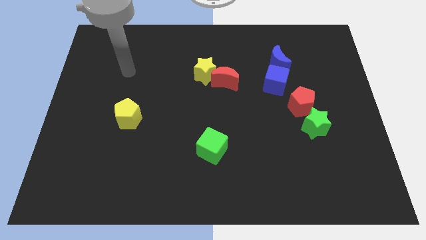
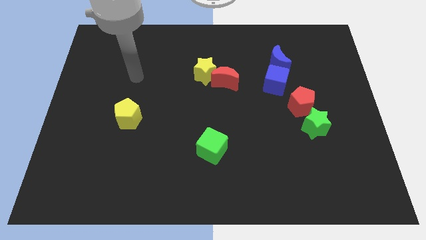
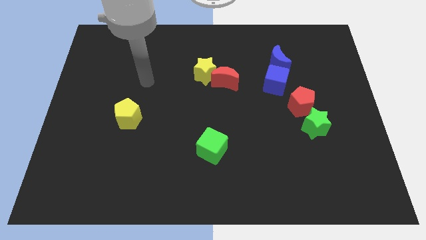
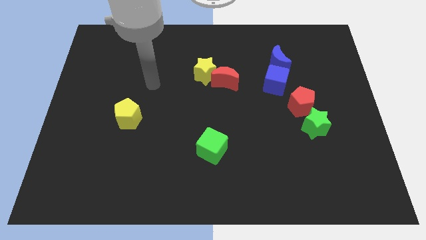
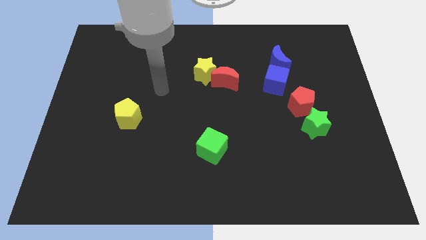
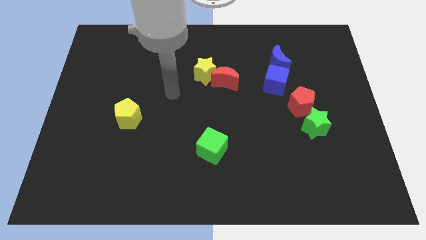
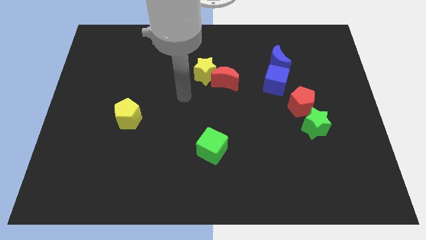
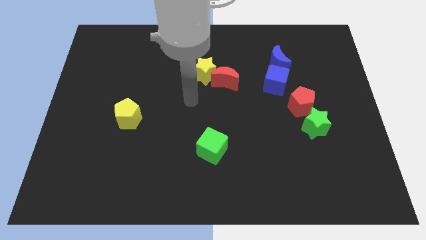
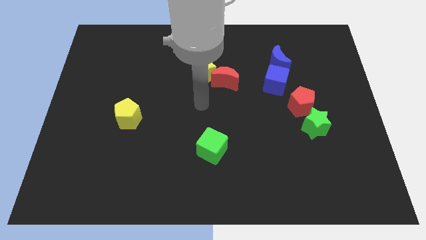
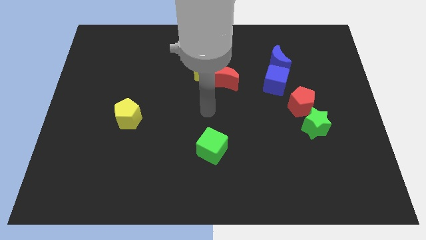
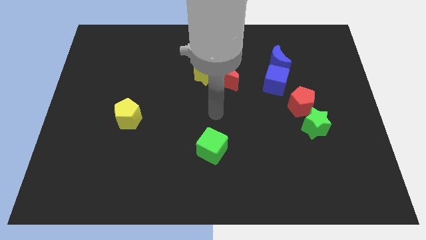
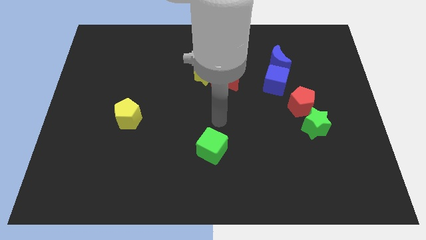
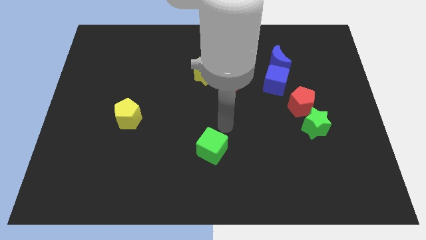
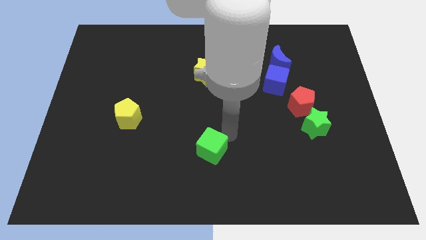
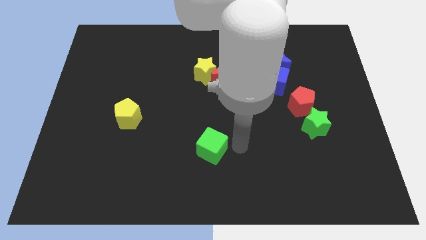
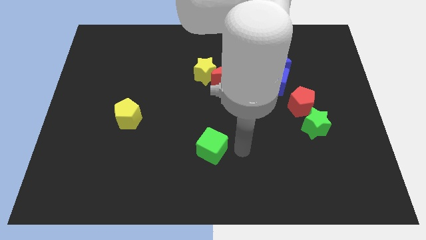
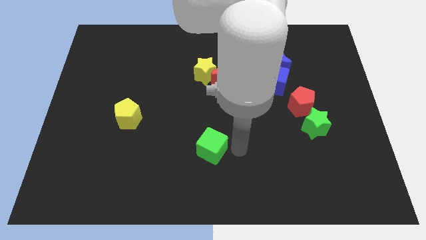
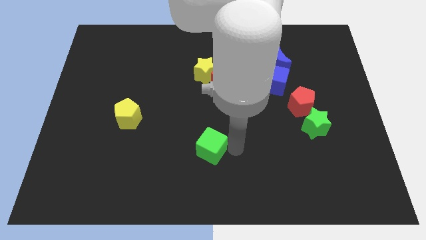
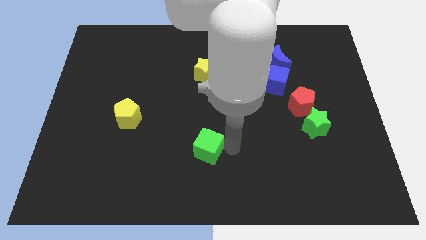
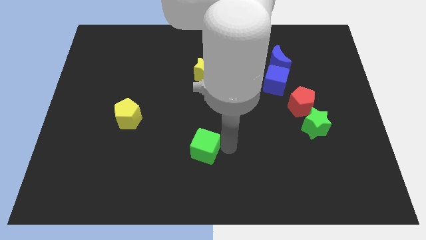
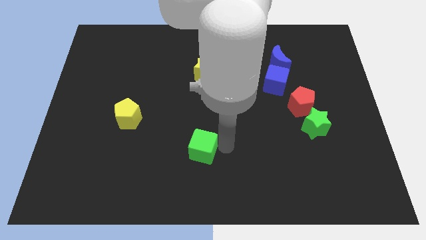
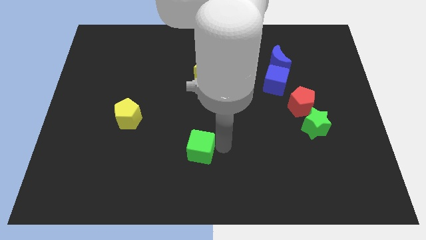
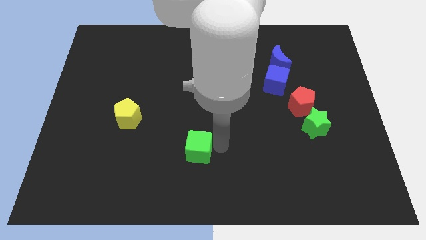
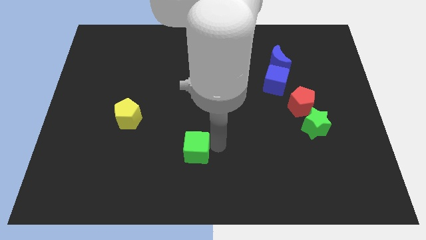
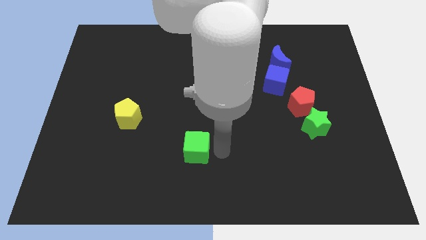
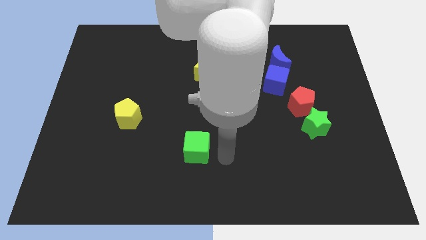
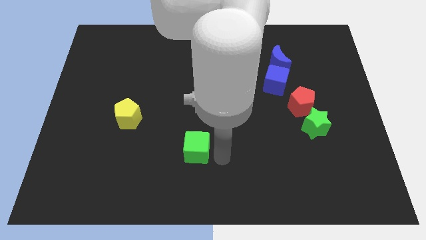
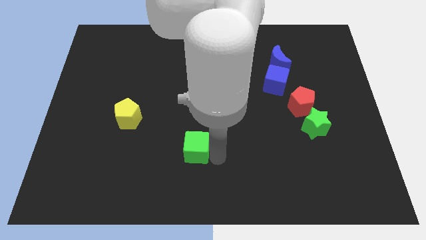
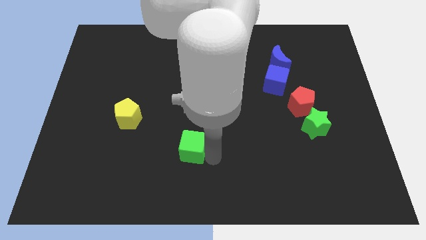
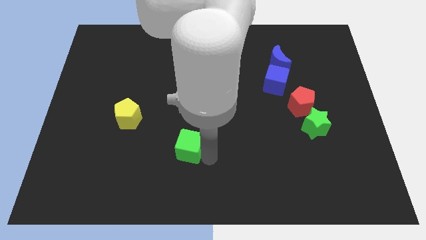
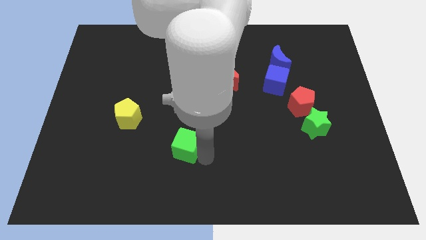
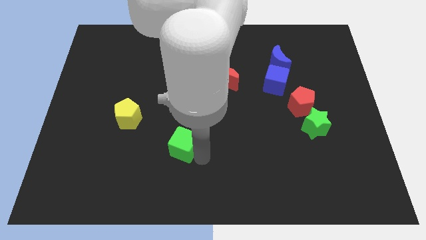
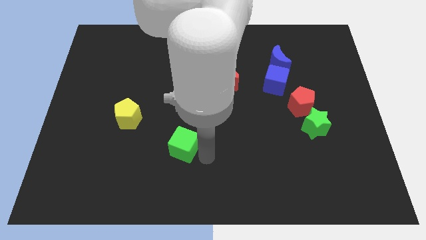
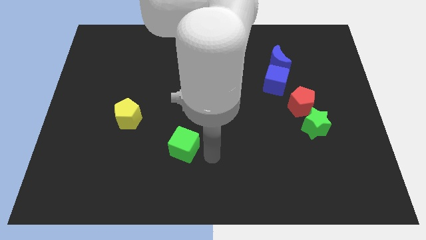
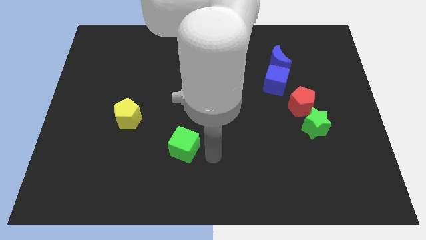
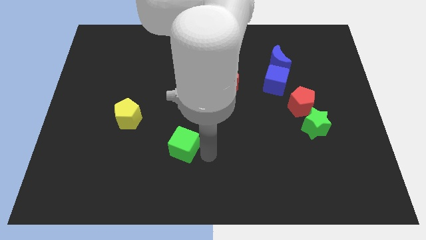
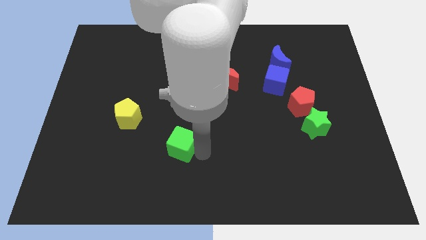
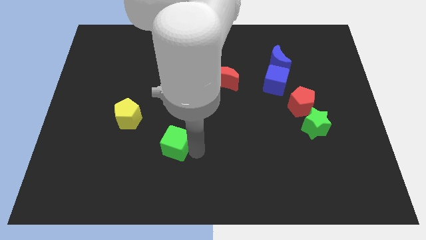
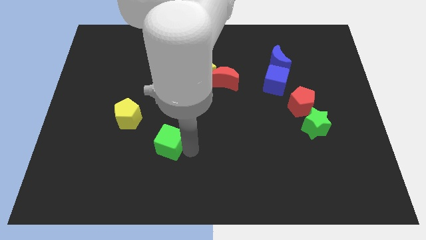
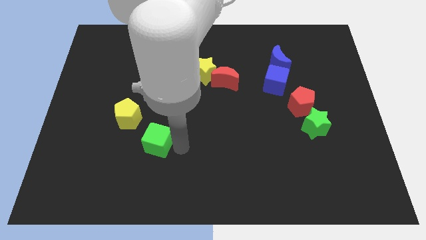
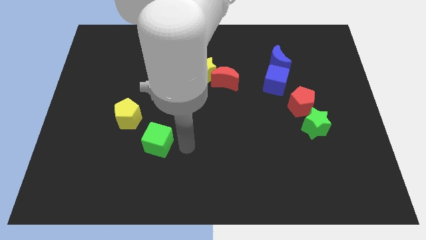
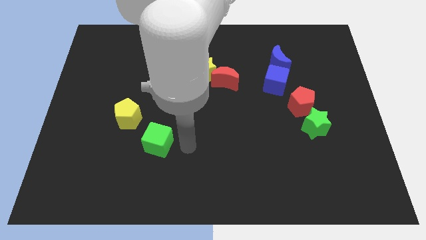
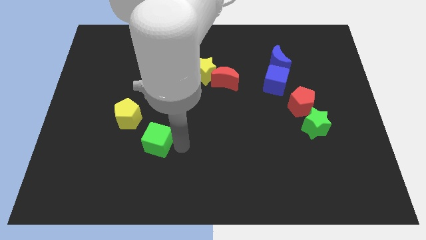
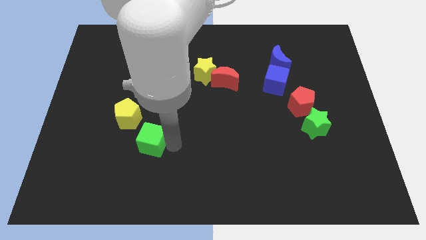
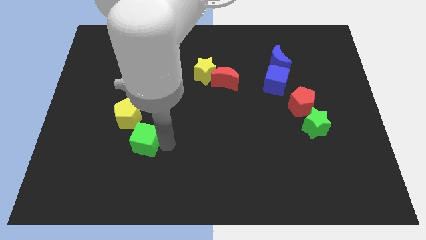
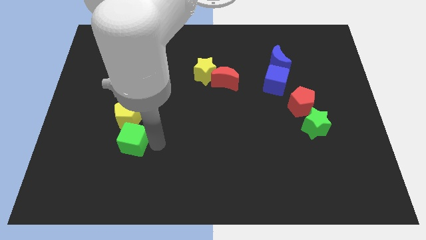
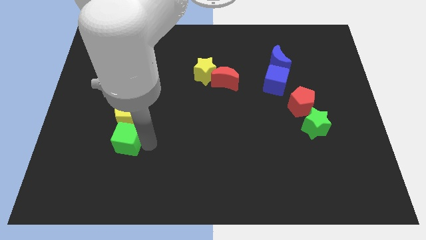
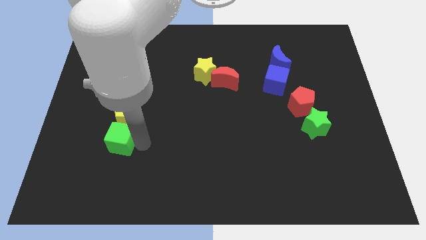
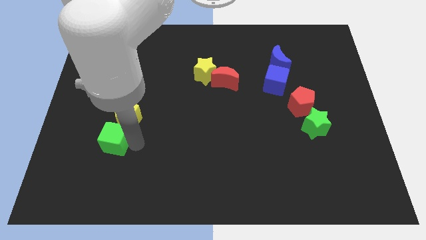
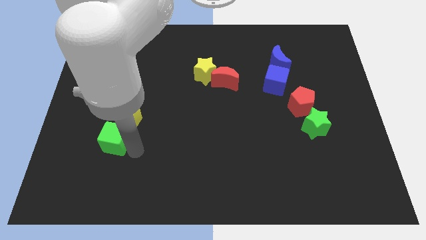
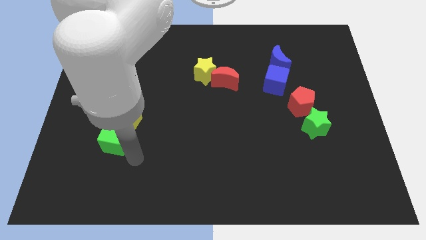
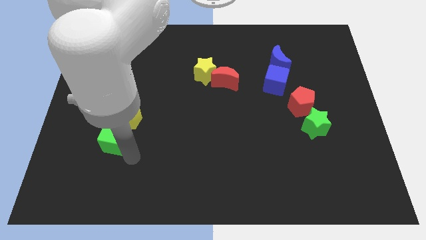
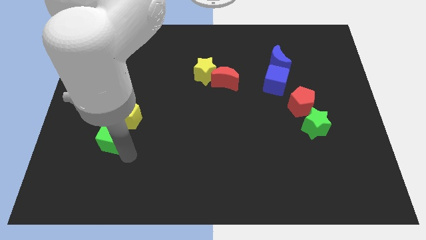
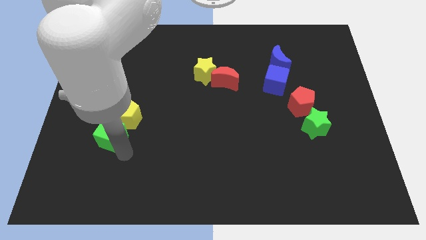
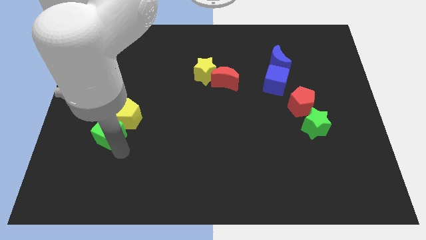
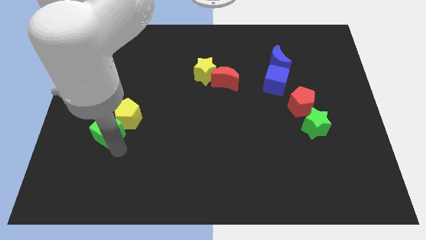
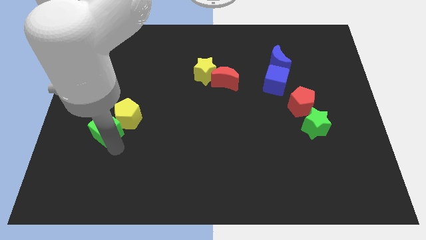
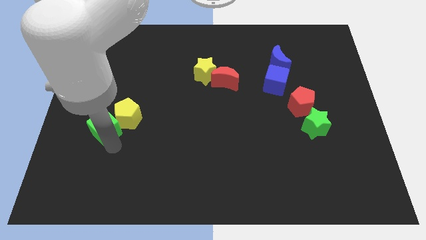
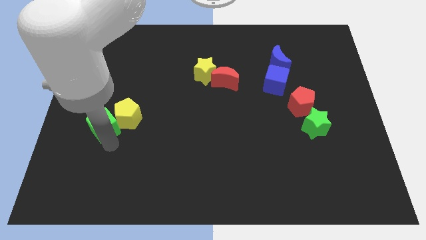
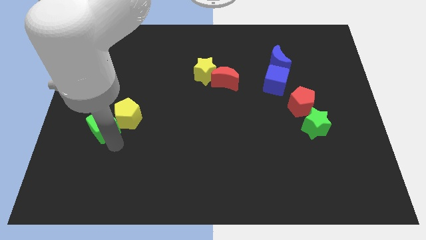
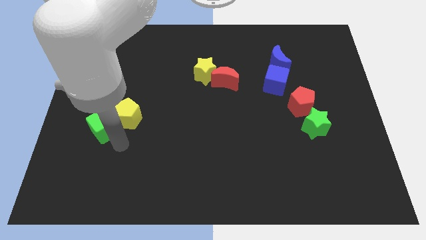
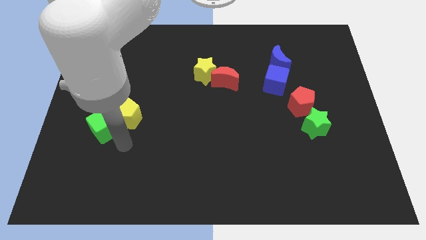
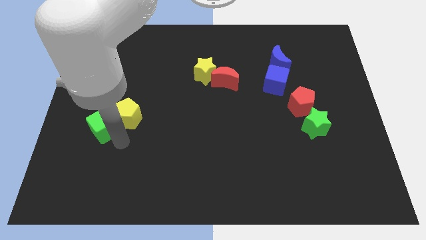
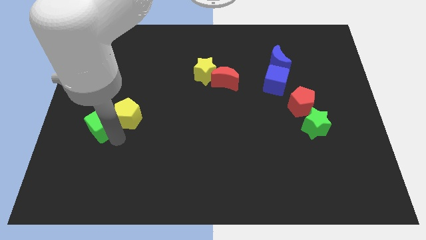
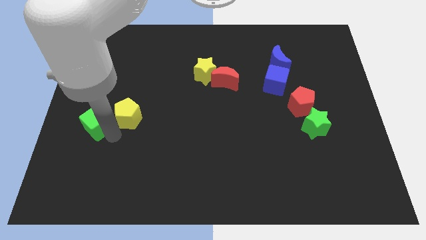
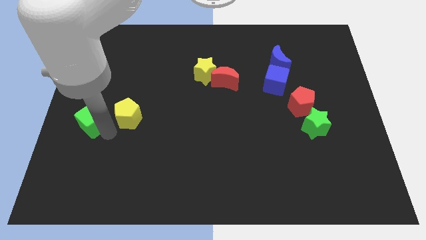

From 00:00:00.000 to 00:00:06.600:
put the green cube to the left side of the board
